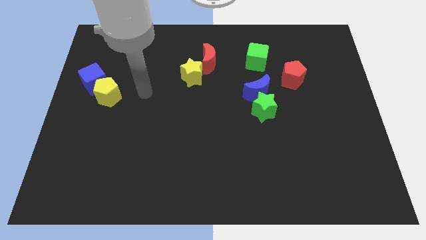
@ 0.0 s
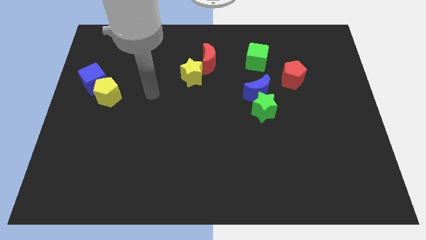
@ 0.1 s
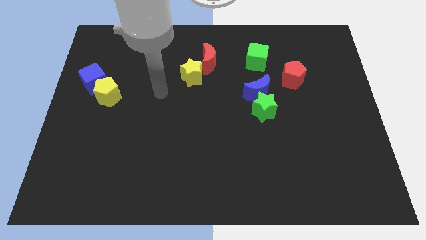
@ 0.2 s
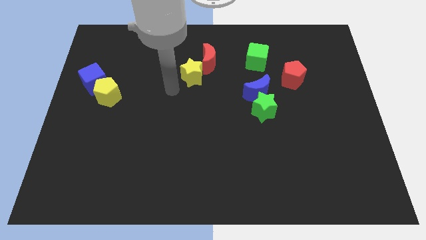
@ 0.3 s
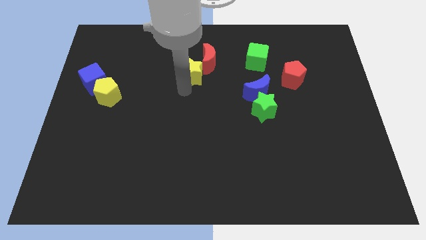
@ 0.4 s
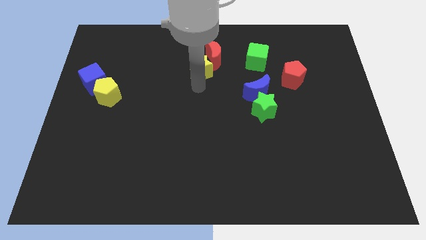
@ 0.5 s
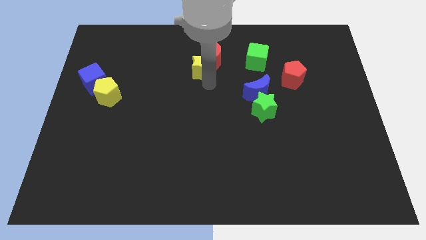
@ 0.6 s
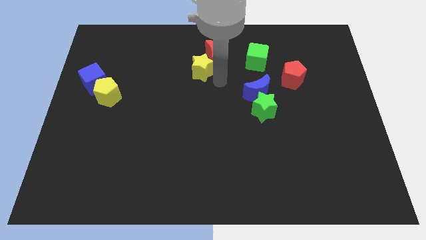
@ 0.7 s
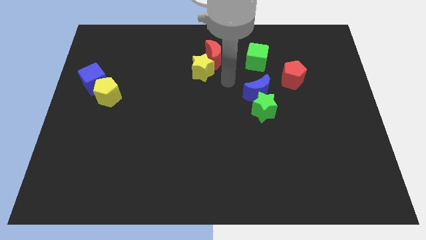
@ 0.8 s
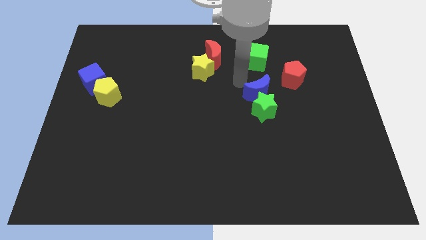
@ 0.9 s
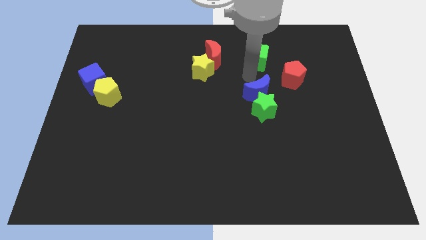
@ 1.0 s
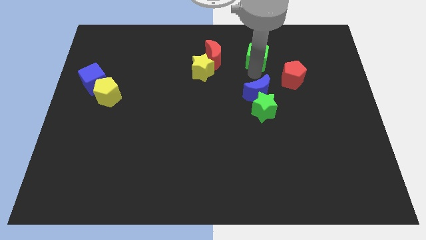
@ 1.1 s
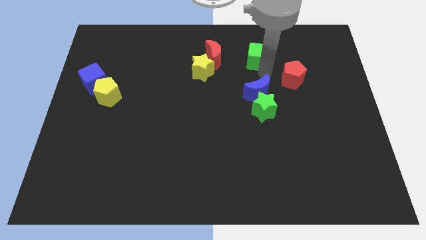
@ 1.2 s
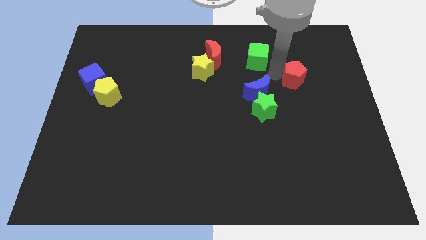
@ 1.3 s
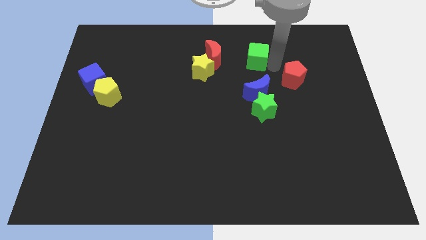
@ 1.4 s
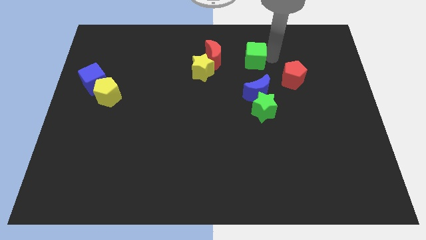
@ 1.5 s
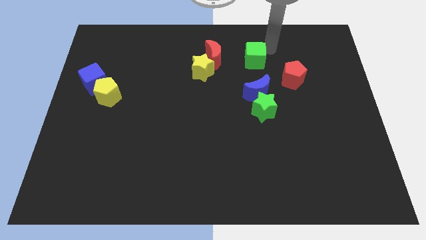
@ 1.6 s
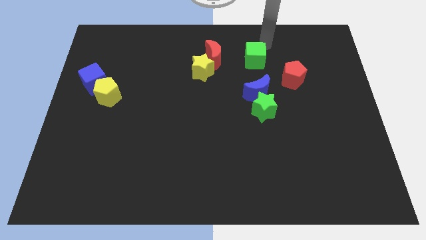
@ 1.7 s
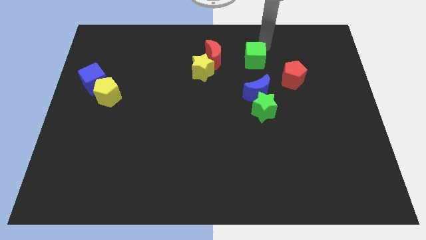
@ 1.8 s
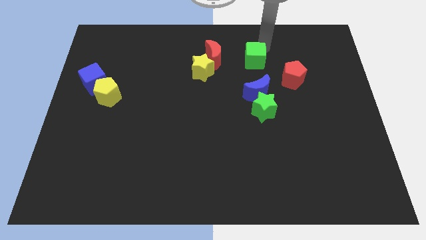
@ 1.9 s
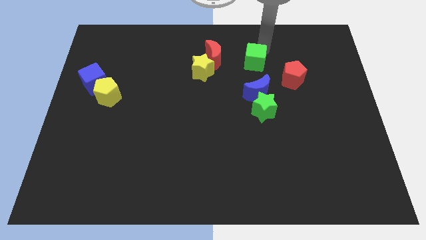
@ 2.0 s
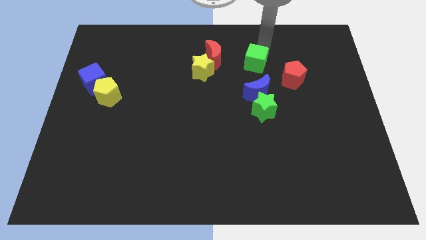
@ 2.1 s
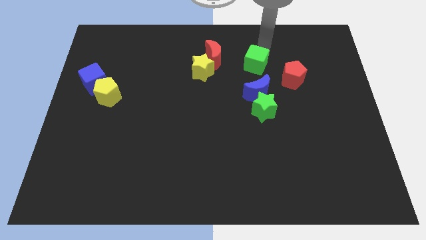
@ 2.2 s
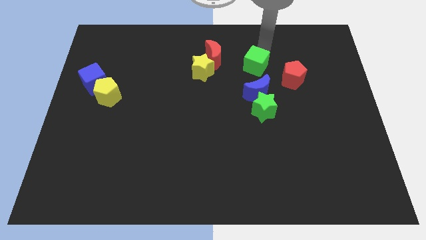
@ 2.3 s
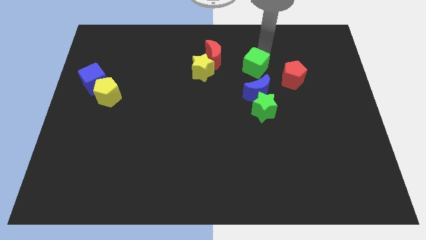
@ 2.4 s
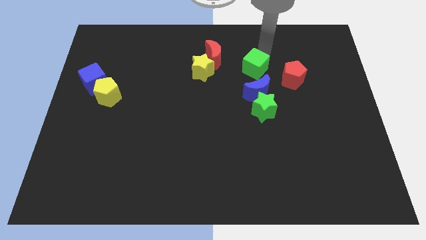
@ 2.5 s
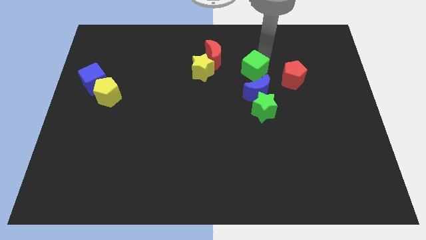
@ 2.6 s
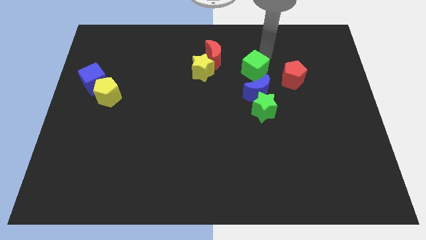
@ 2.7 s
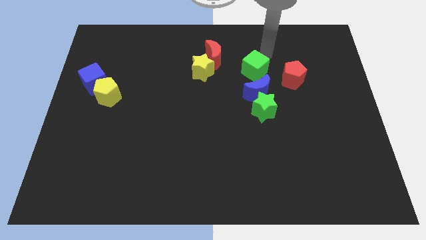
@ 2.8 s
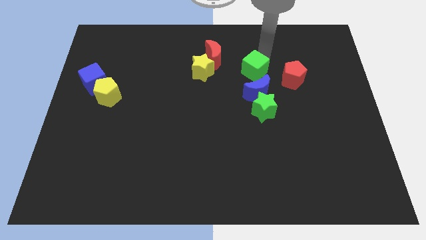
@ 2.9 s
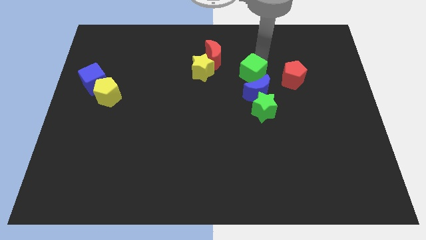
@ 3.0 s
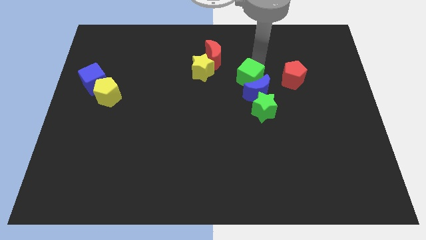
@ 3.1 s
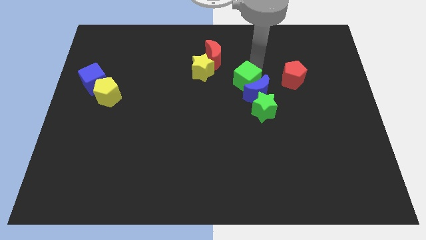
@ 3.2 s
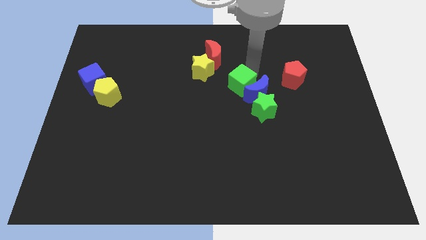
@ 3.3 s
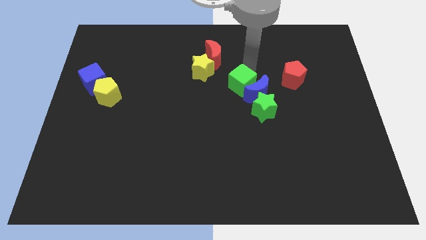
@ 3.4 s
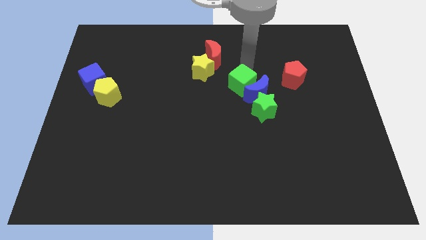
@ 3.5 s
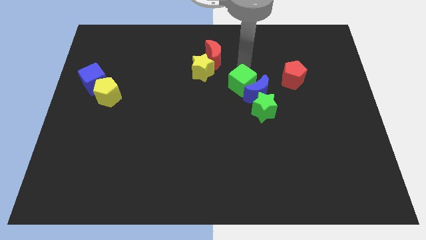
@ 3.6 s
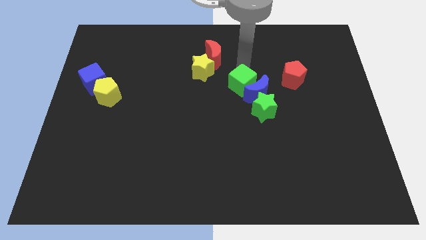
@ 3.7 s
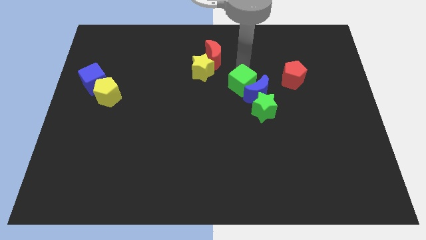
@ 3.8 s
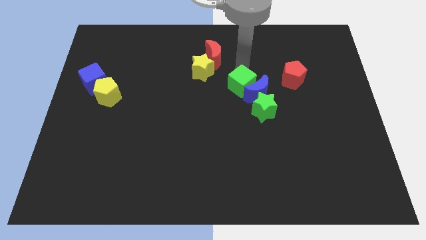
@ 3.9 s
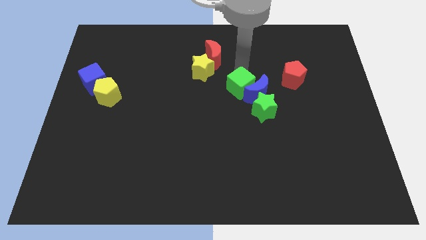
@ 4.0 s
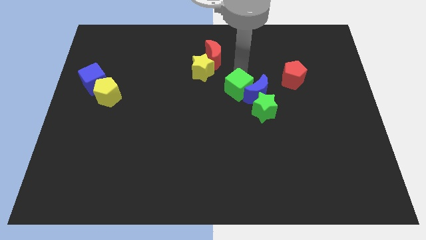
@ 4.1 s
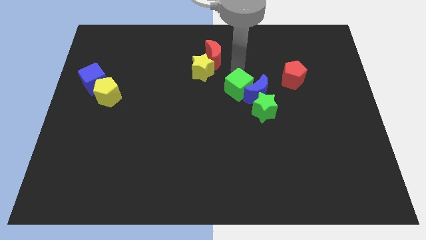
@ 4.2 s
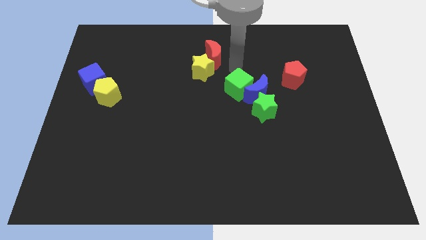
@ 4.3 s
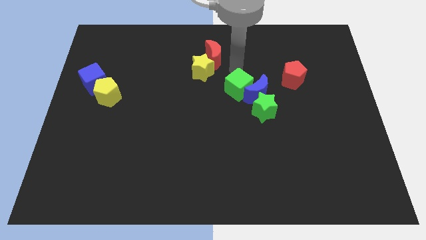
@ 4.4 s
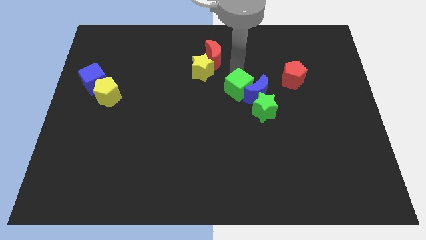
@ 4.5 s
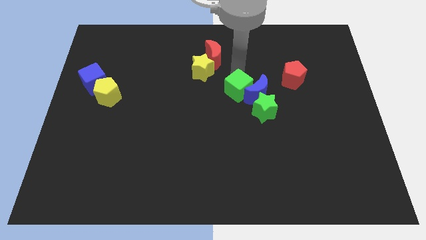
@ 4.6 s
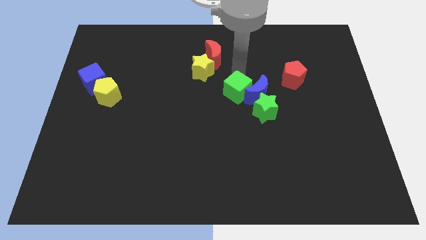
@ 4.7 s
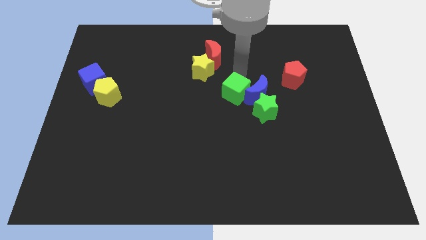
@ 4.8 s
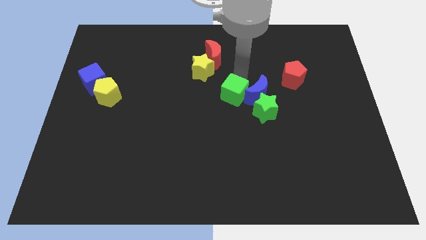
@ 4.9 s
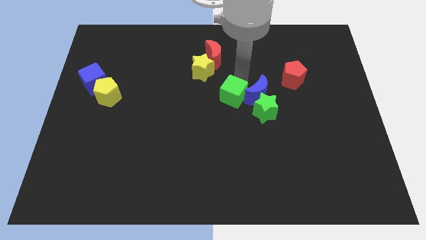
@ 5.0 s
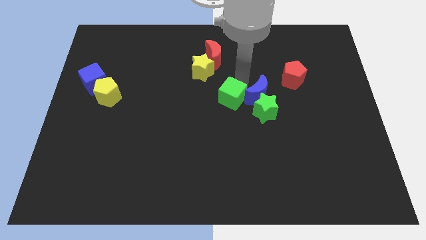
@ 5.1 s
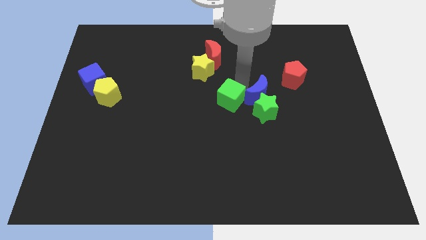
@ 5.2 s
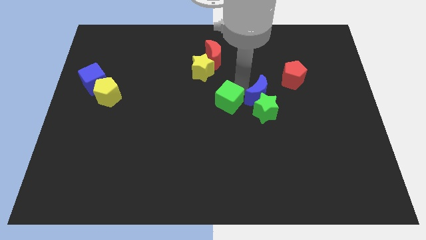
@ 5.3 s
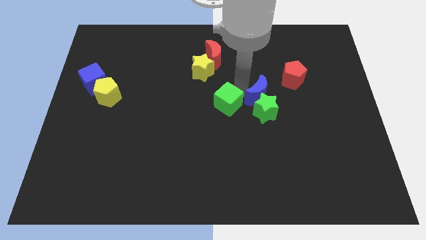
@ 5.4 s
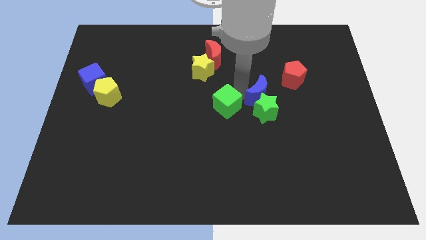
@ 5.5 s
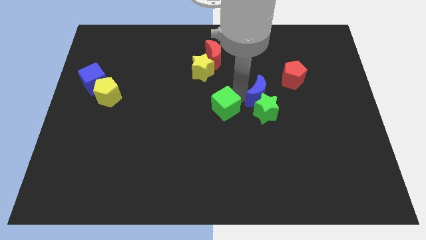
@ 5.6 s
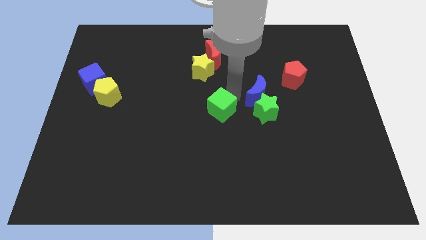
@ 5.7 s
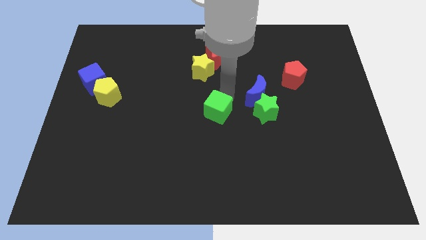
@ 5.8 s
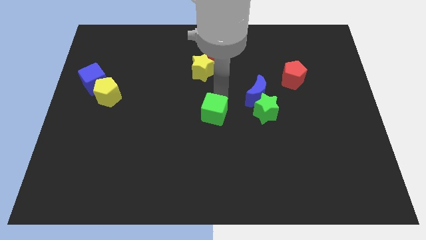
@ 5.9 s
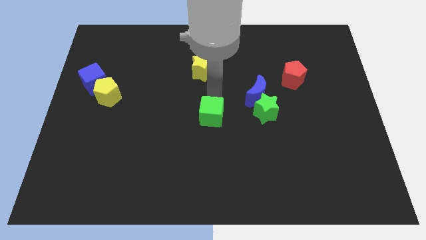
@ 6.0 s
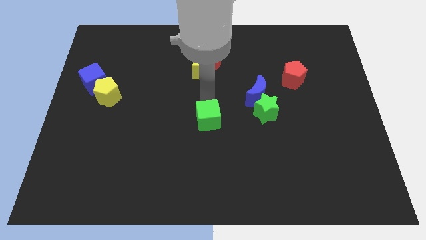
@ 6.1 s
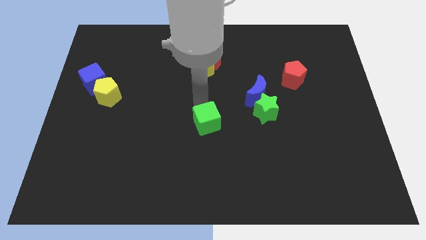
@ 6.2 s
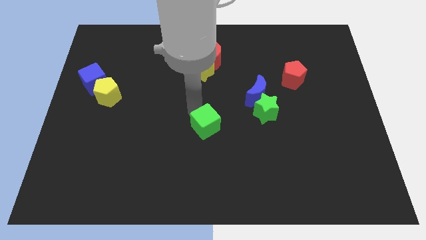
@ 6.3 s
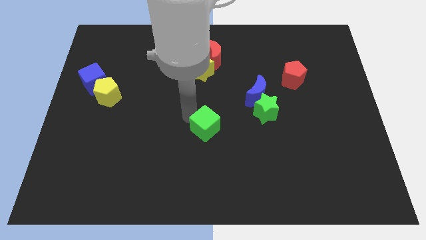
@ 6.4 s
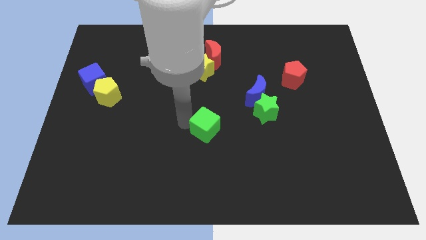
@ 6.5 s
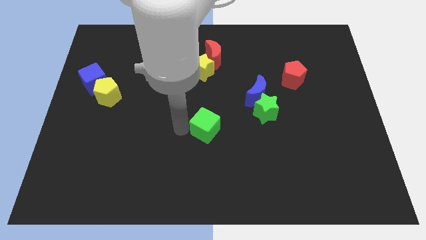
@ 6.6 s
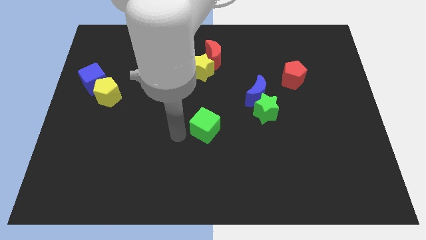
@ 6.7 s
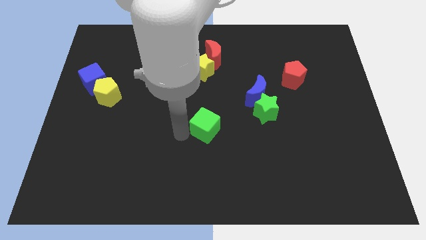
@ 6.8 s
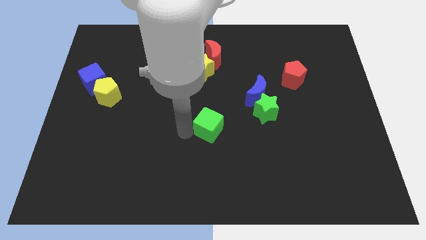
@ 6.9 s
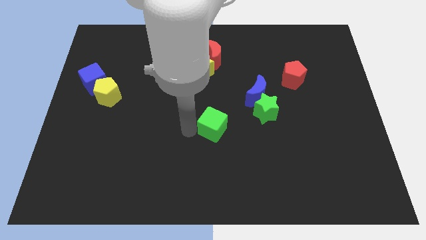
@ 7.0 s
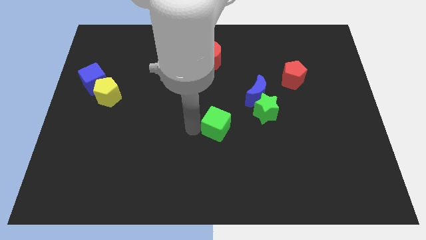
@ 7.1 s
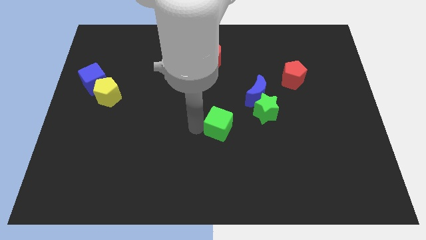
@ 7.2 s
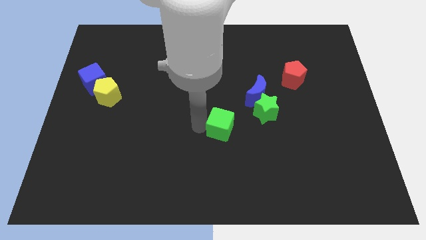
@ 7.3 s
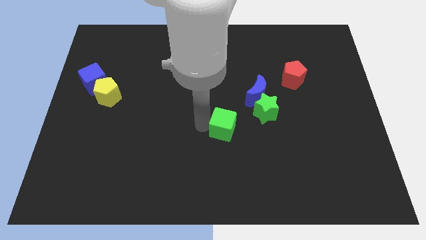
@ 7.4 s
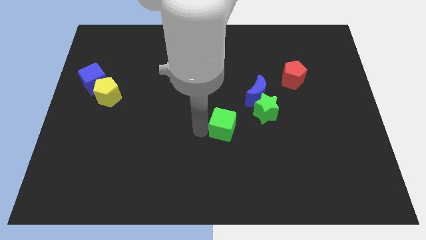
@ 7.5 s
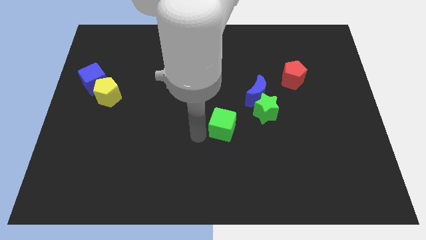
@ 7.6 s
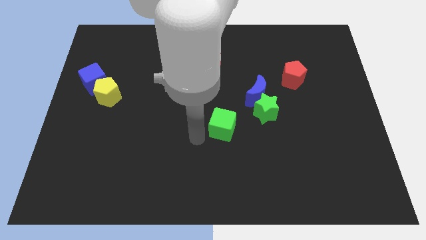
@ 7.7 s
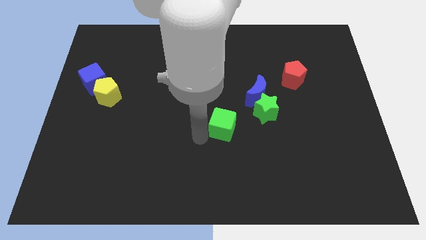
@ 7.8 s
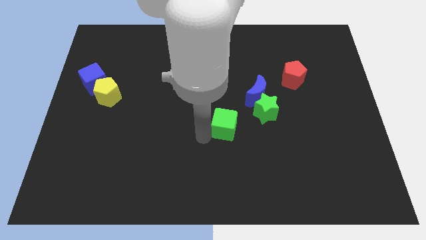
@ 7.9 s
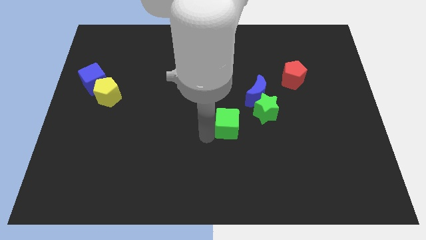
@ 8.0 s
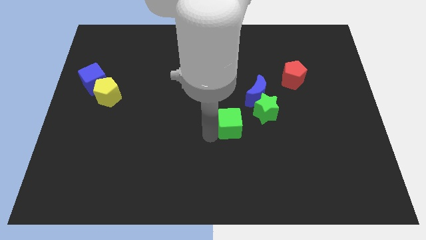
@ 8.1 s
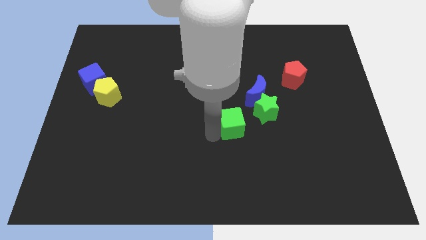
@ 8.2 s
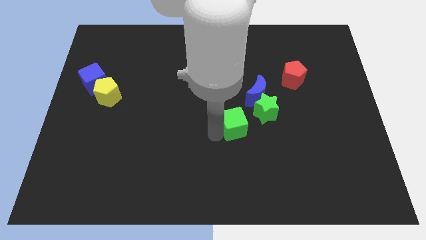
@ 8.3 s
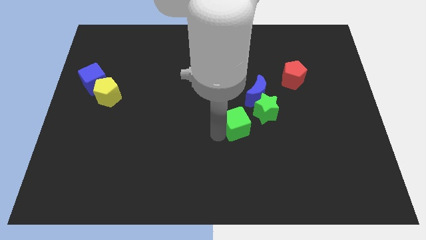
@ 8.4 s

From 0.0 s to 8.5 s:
move the green cube downwards
